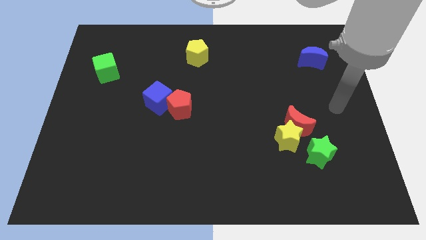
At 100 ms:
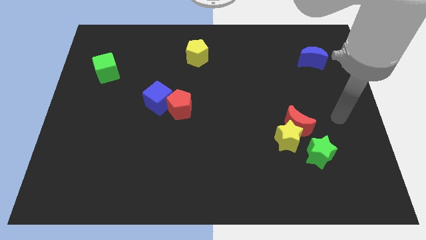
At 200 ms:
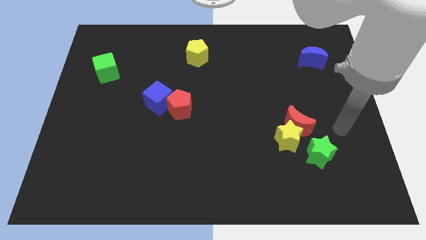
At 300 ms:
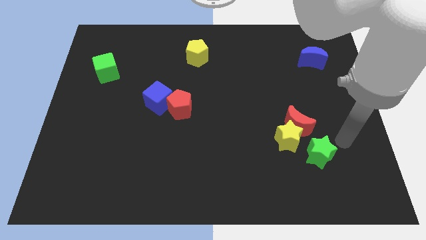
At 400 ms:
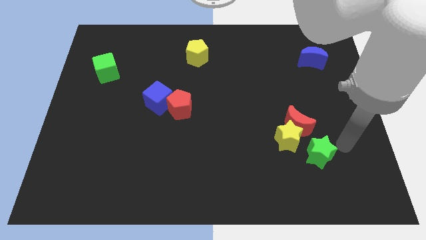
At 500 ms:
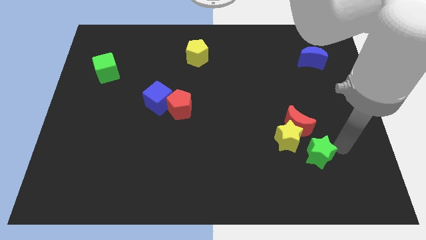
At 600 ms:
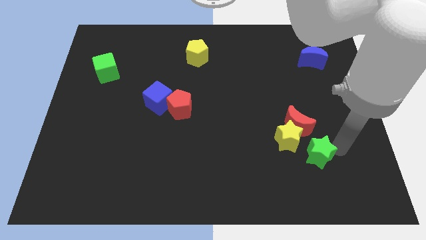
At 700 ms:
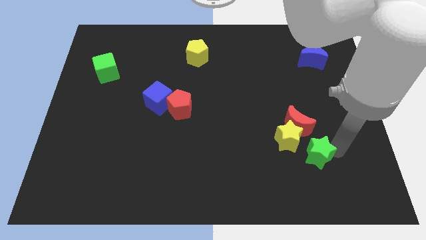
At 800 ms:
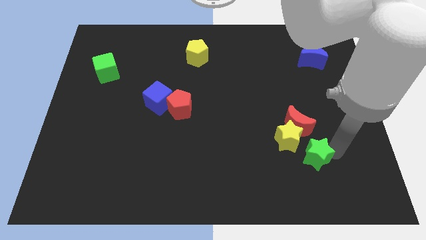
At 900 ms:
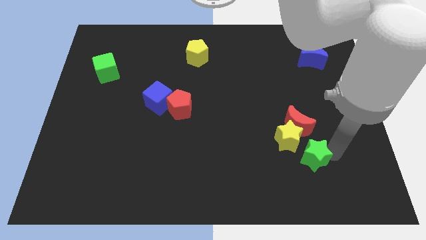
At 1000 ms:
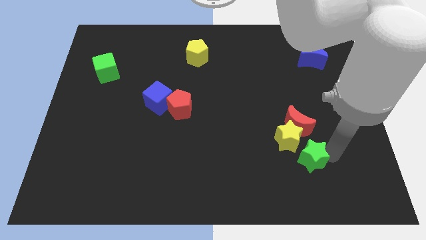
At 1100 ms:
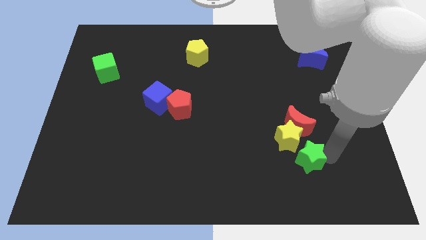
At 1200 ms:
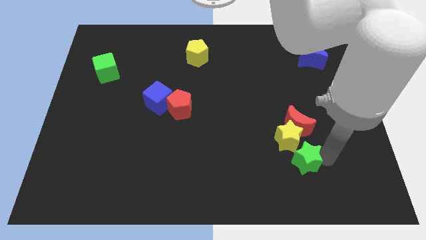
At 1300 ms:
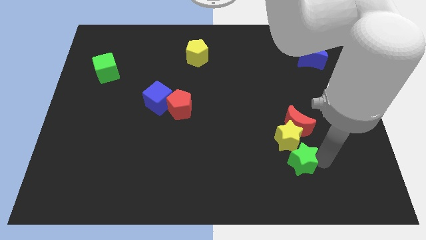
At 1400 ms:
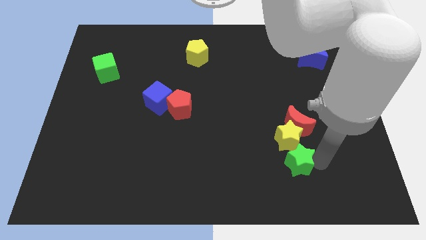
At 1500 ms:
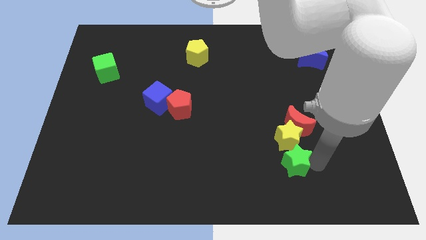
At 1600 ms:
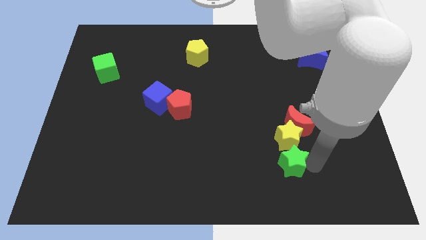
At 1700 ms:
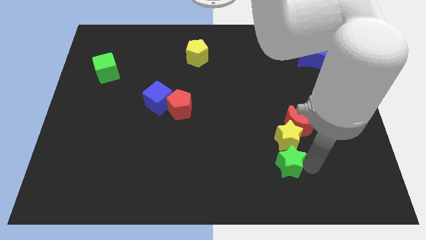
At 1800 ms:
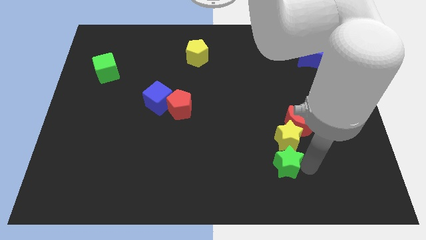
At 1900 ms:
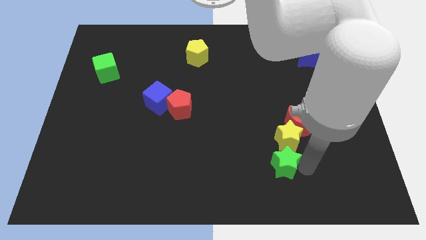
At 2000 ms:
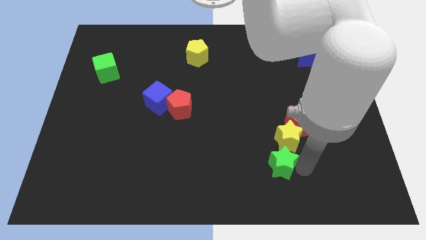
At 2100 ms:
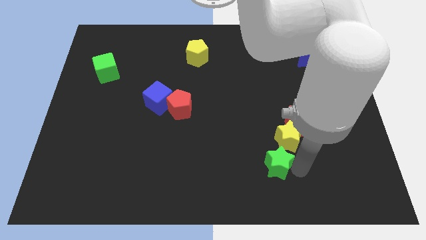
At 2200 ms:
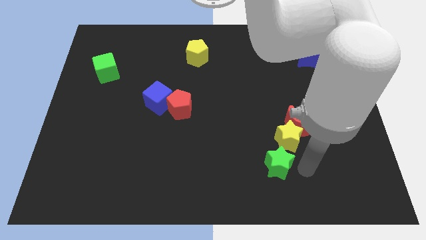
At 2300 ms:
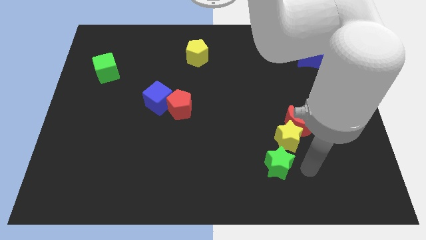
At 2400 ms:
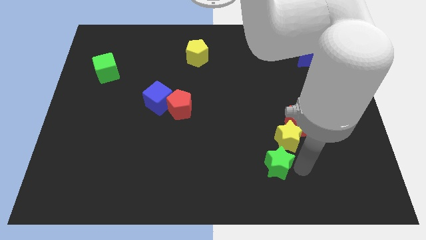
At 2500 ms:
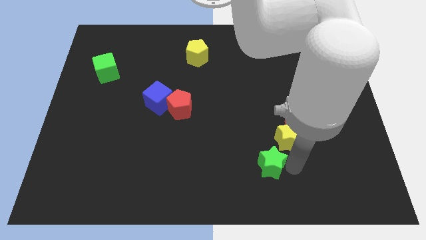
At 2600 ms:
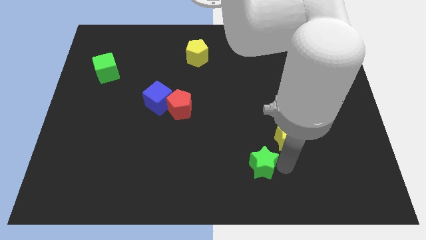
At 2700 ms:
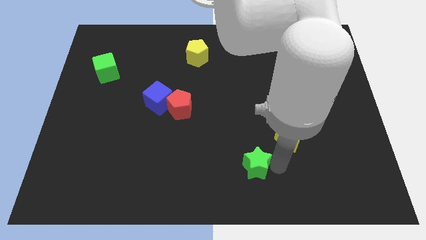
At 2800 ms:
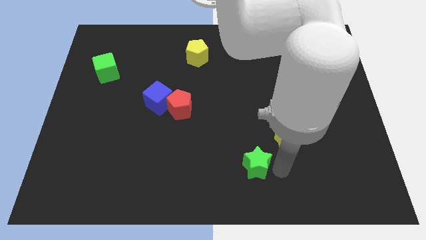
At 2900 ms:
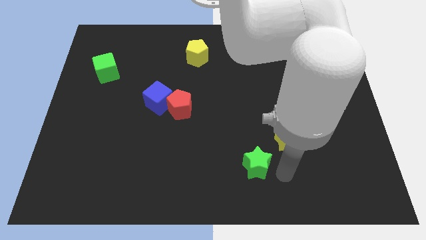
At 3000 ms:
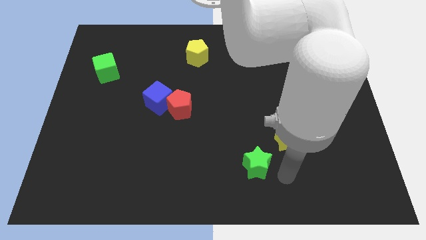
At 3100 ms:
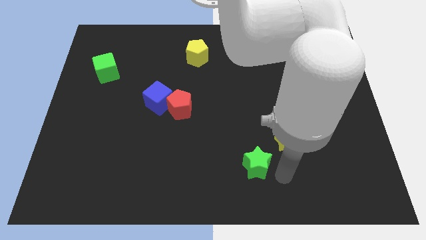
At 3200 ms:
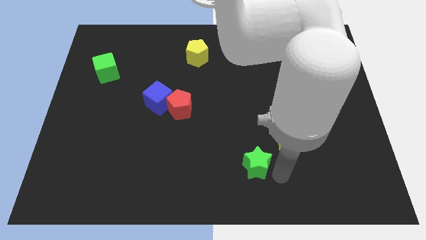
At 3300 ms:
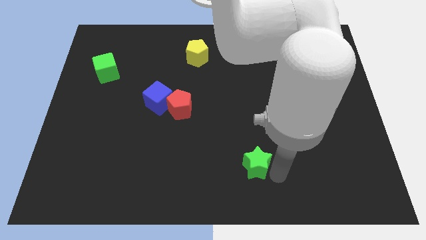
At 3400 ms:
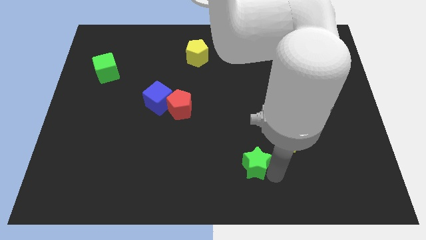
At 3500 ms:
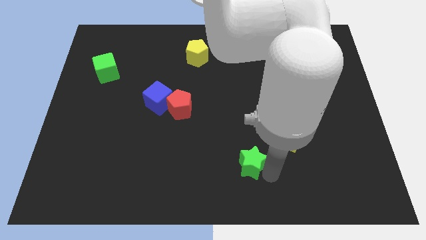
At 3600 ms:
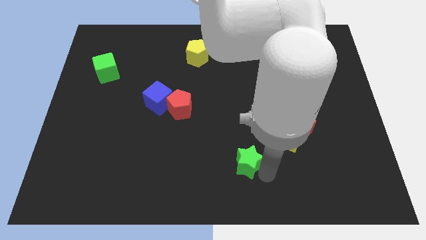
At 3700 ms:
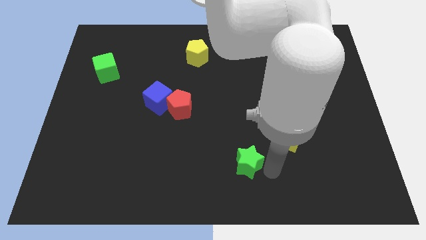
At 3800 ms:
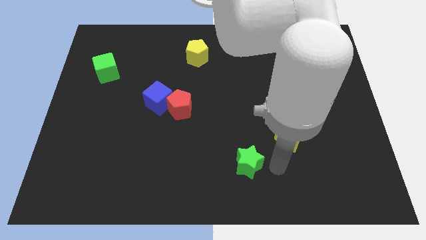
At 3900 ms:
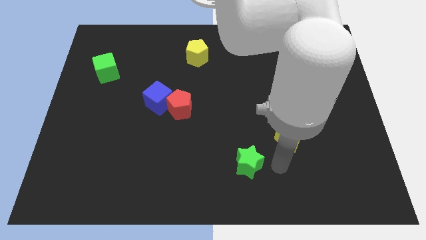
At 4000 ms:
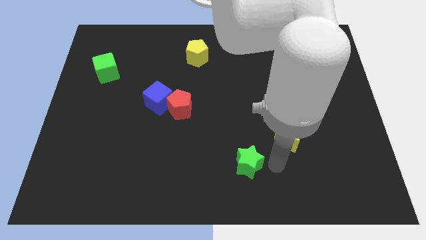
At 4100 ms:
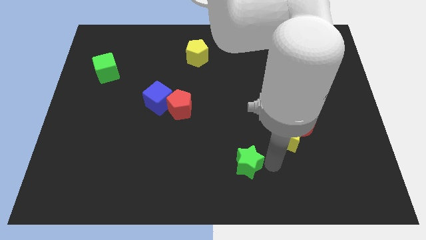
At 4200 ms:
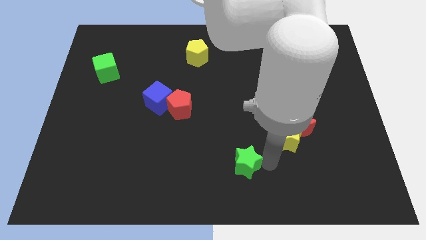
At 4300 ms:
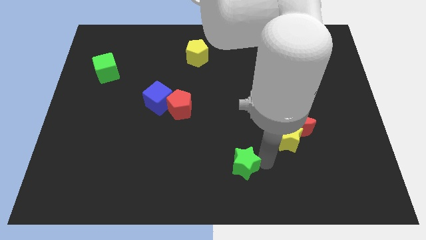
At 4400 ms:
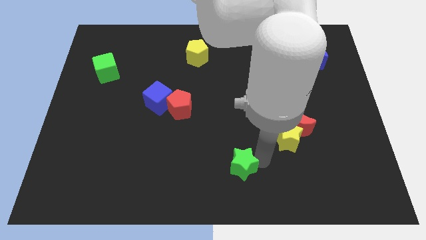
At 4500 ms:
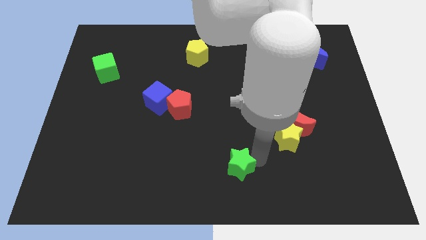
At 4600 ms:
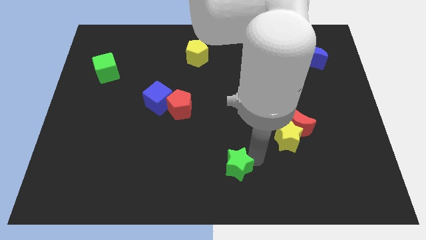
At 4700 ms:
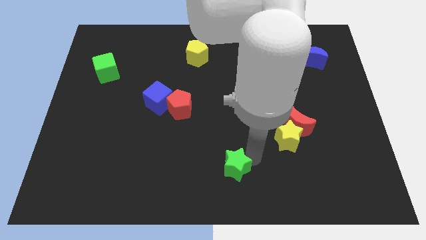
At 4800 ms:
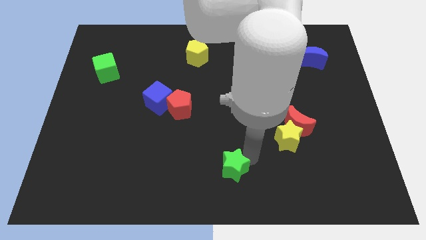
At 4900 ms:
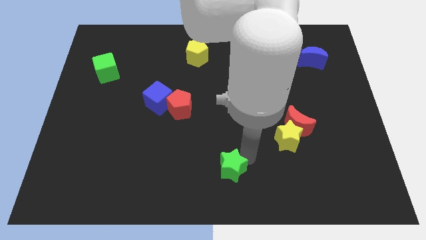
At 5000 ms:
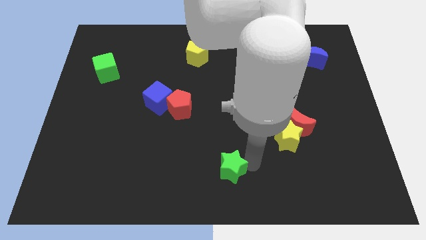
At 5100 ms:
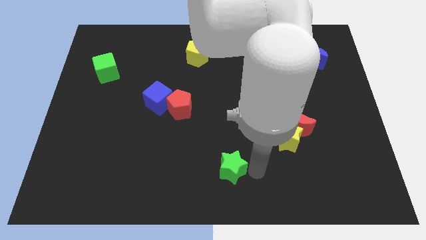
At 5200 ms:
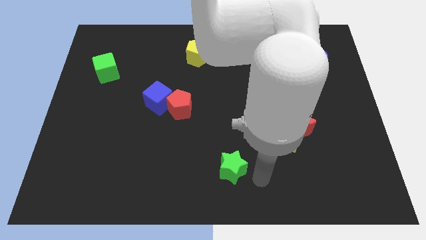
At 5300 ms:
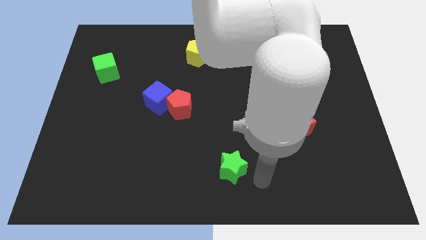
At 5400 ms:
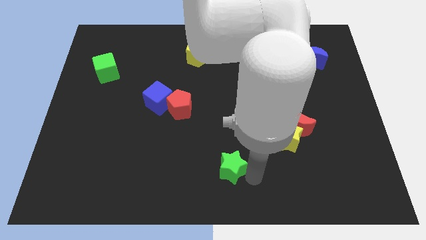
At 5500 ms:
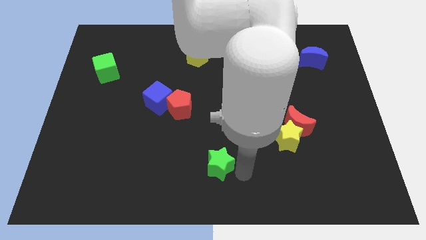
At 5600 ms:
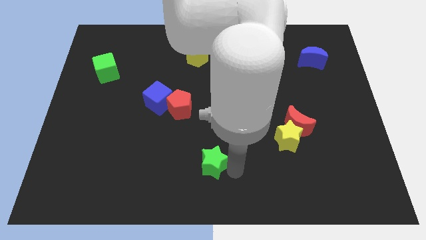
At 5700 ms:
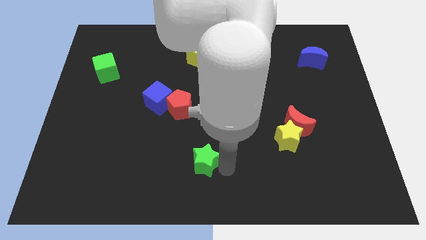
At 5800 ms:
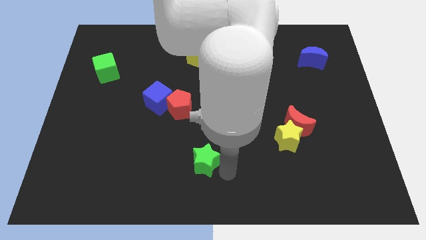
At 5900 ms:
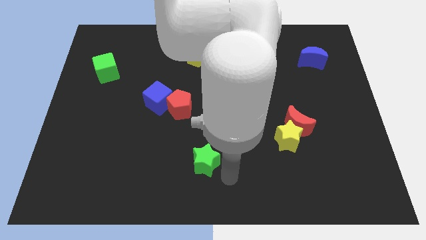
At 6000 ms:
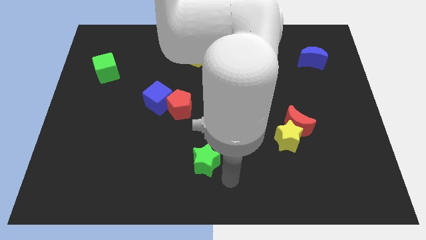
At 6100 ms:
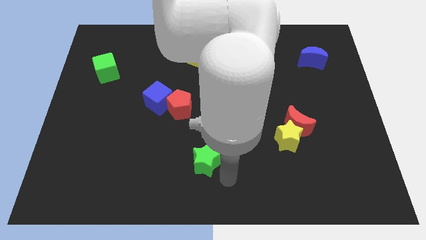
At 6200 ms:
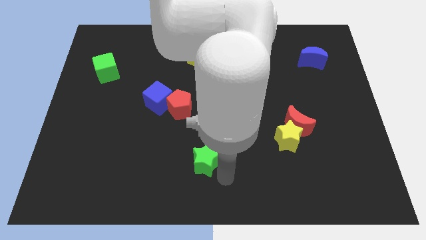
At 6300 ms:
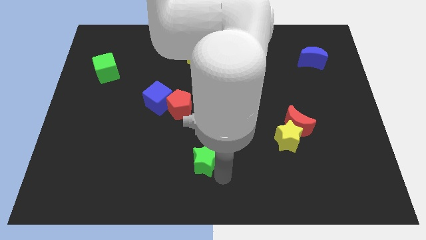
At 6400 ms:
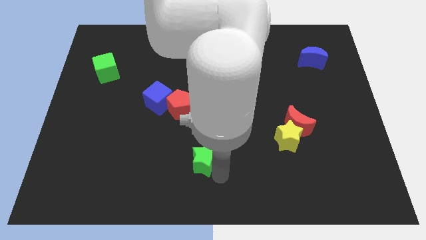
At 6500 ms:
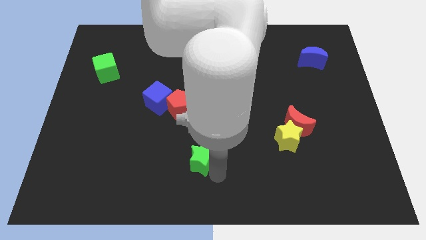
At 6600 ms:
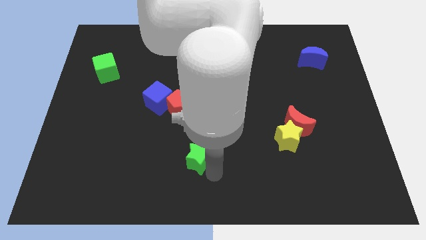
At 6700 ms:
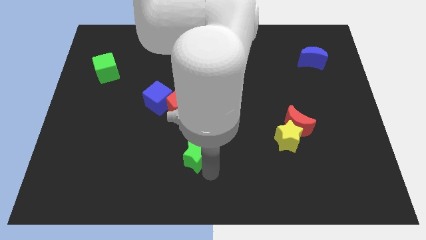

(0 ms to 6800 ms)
move the green star below the red pentagon
